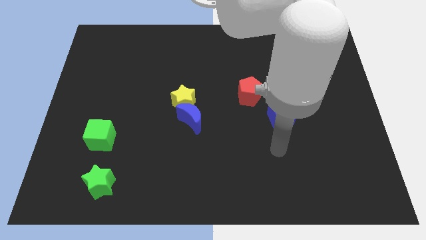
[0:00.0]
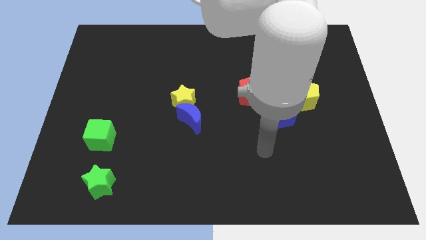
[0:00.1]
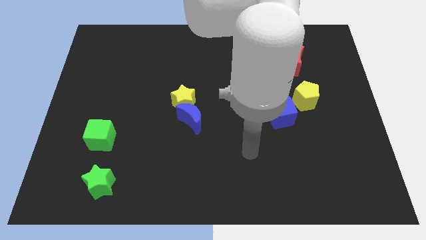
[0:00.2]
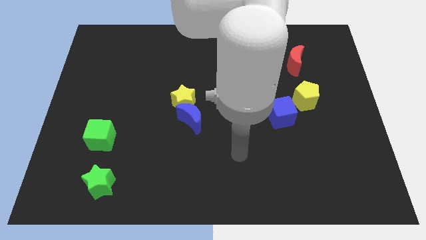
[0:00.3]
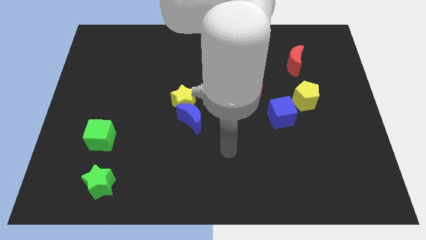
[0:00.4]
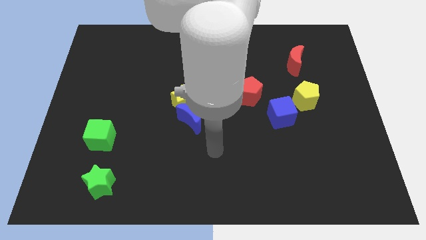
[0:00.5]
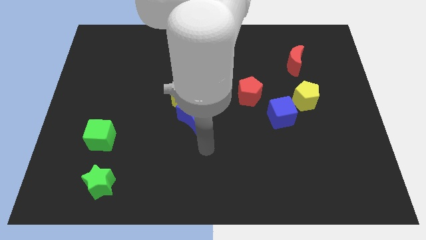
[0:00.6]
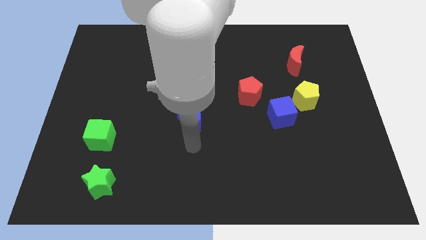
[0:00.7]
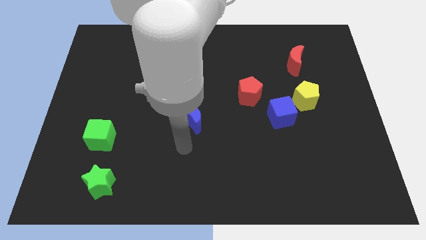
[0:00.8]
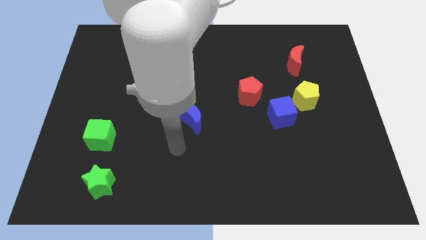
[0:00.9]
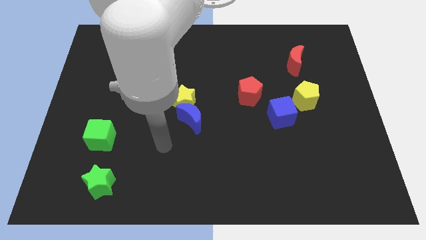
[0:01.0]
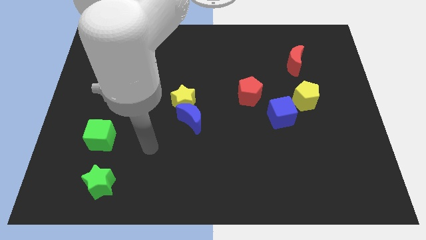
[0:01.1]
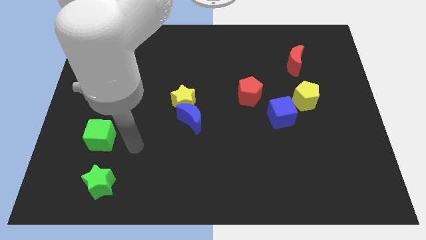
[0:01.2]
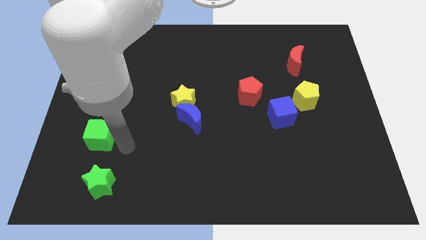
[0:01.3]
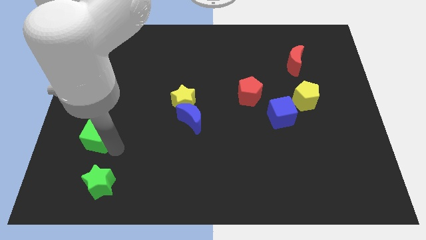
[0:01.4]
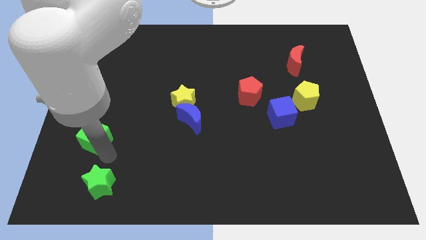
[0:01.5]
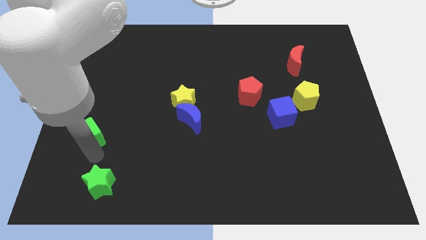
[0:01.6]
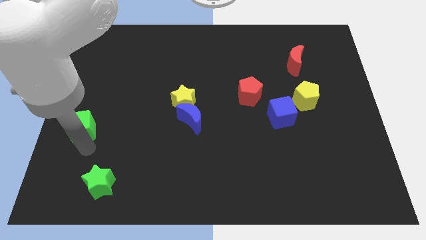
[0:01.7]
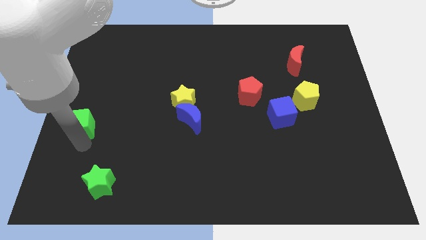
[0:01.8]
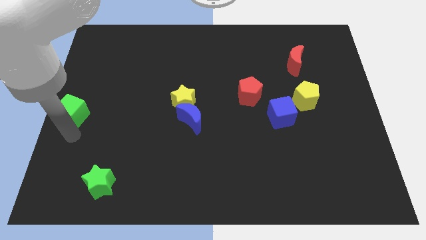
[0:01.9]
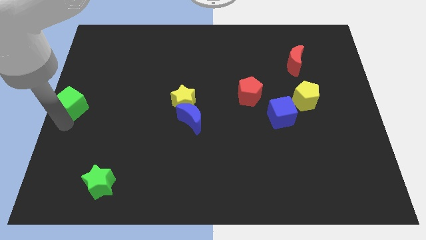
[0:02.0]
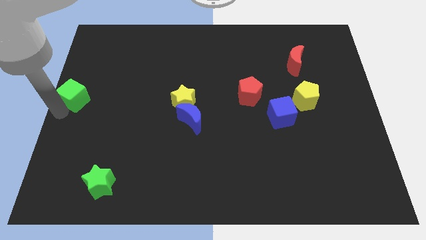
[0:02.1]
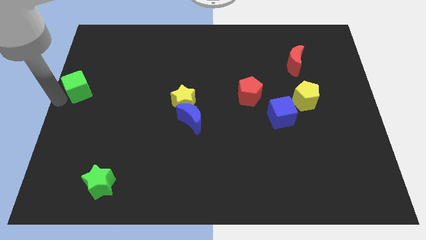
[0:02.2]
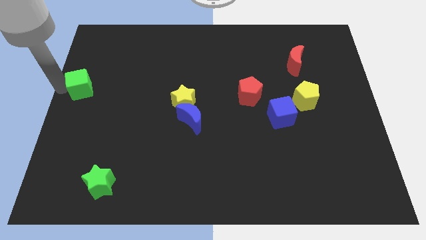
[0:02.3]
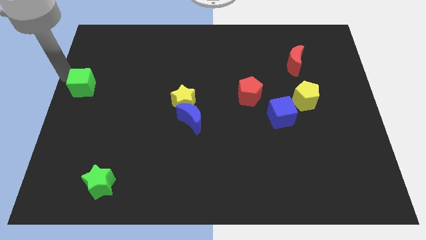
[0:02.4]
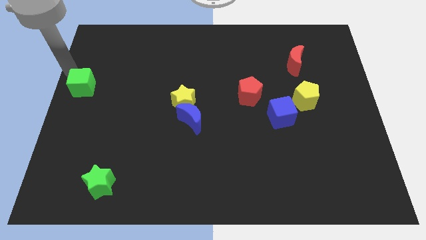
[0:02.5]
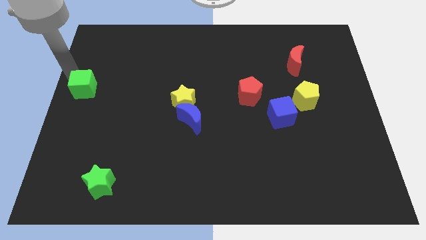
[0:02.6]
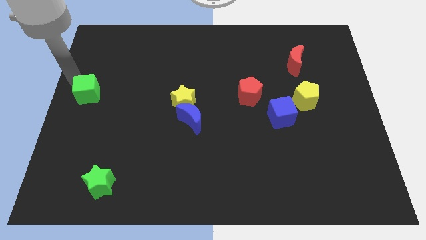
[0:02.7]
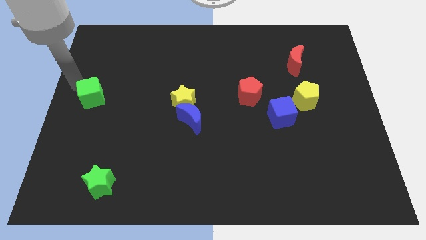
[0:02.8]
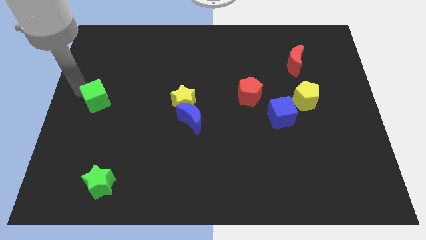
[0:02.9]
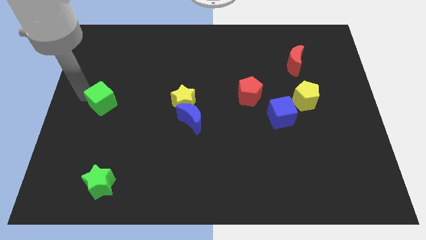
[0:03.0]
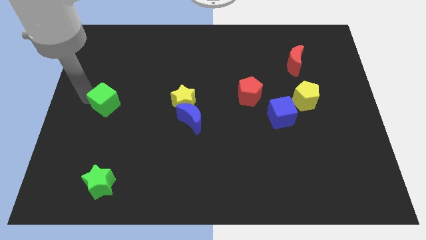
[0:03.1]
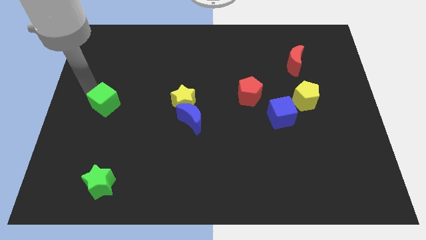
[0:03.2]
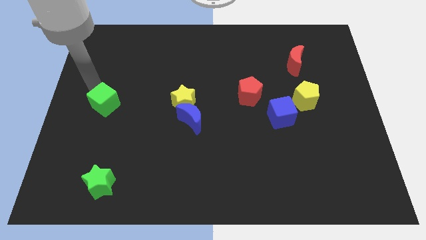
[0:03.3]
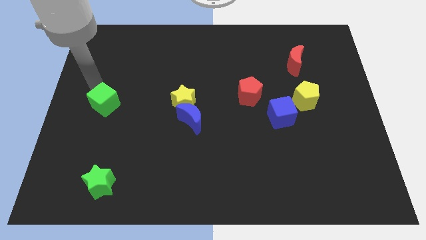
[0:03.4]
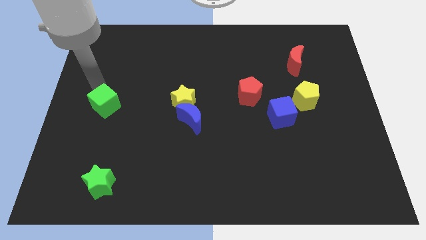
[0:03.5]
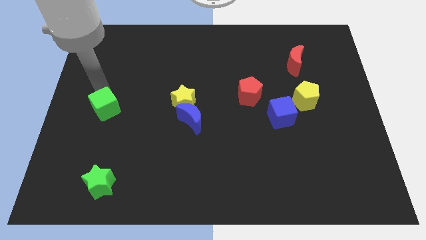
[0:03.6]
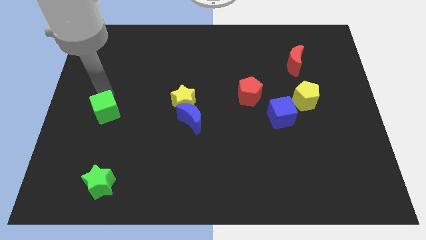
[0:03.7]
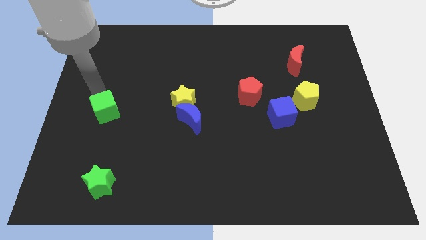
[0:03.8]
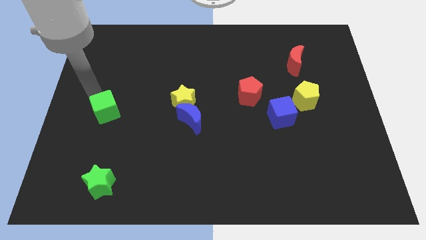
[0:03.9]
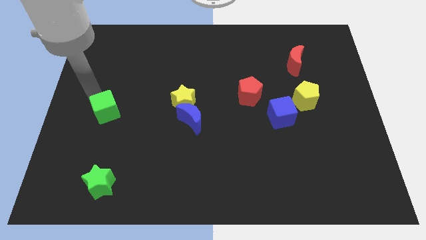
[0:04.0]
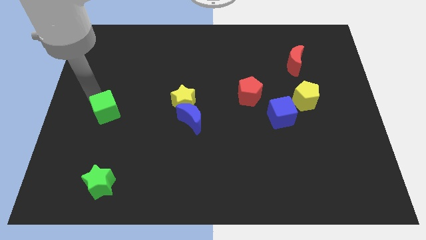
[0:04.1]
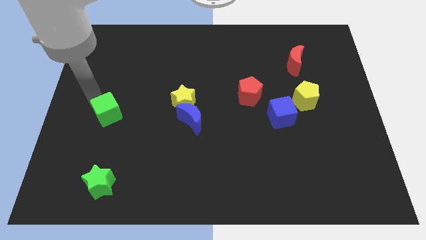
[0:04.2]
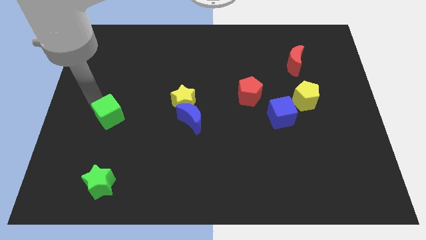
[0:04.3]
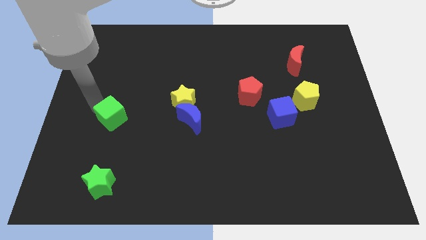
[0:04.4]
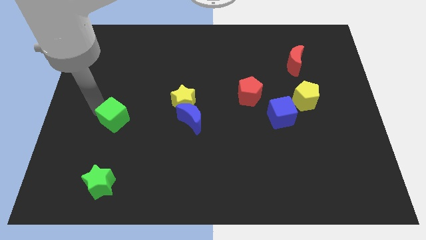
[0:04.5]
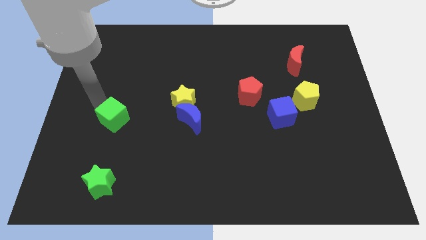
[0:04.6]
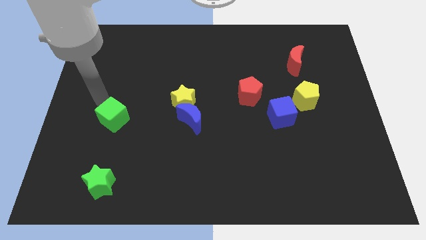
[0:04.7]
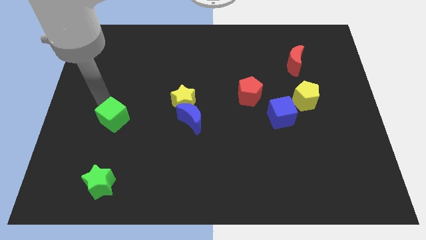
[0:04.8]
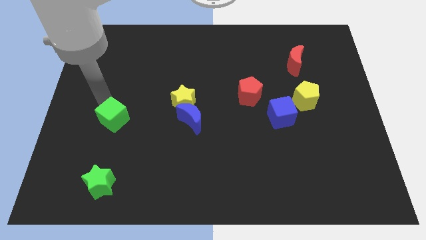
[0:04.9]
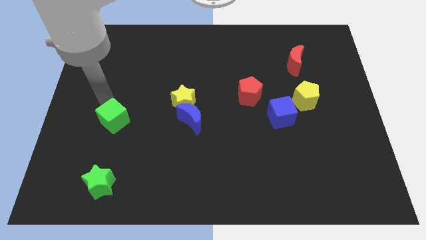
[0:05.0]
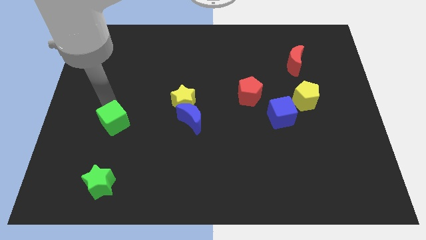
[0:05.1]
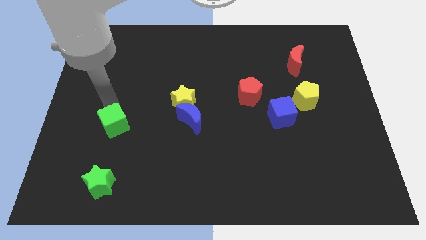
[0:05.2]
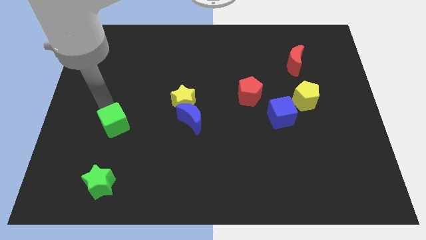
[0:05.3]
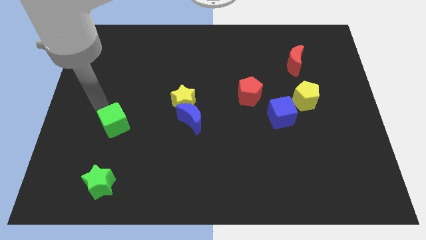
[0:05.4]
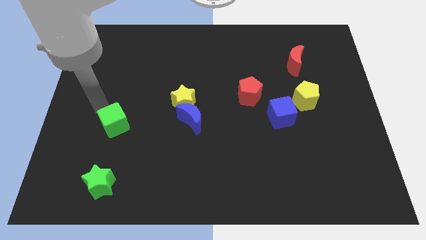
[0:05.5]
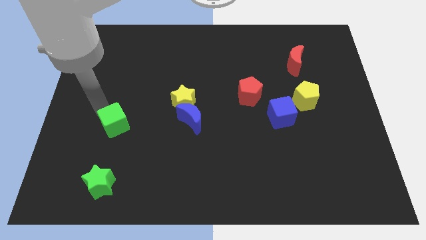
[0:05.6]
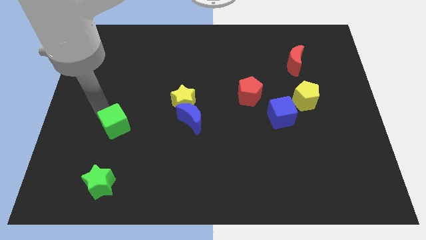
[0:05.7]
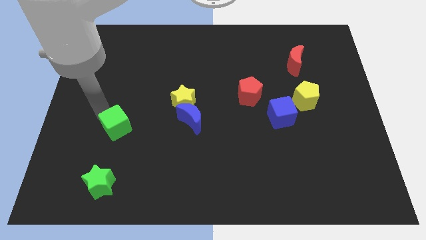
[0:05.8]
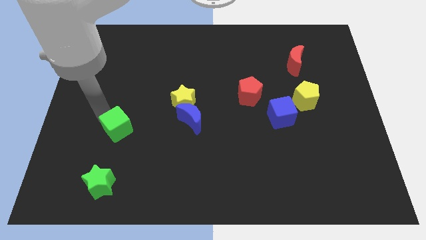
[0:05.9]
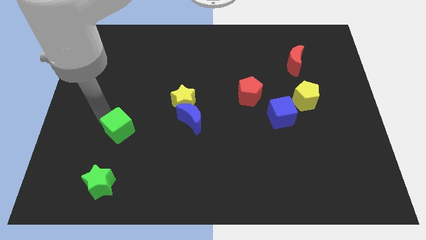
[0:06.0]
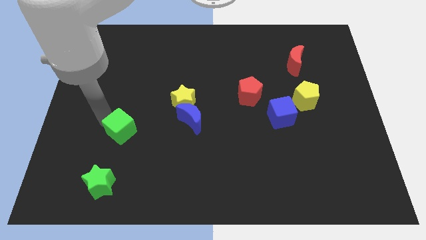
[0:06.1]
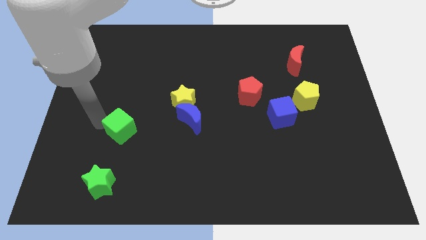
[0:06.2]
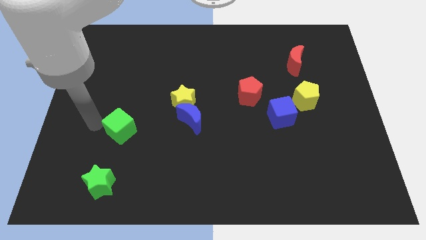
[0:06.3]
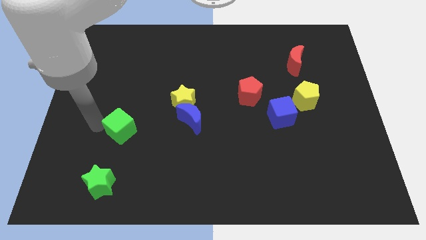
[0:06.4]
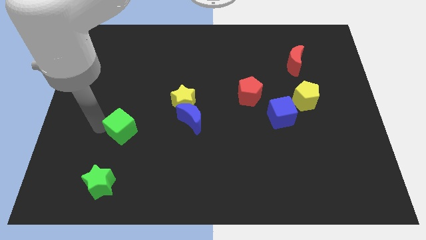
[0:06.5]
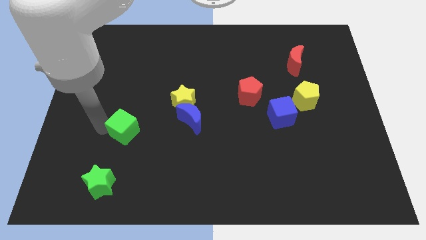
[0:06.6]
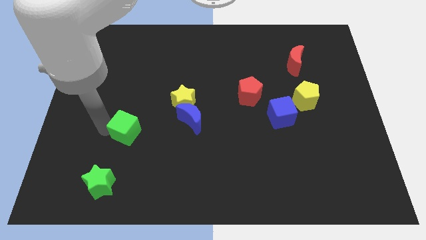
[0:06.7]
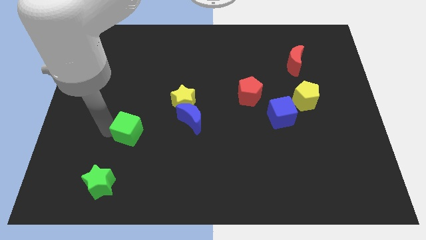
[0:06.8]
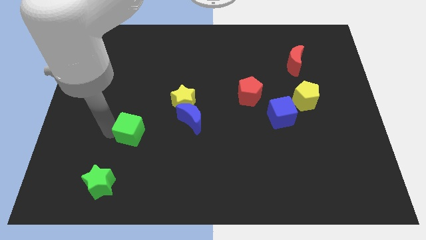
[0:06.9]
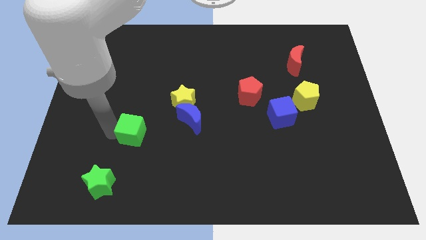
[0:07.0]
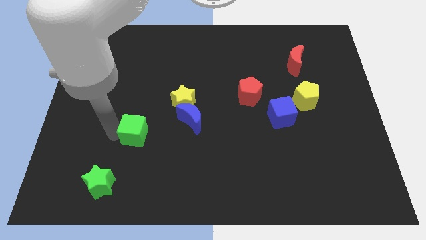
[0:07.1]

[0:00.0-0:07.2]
slide the green cube a little bit to the right

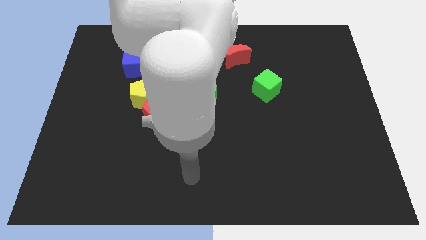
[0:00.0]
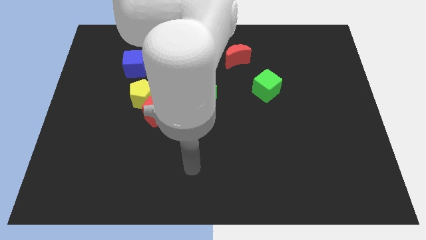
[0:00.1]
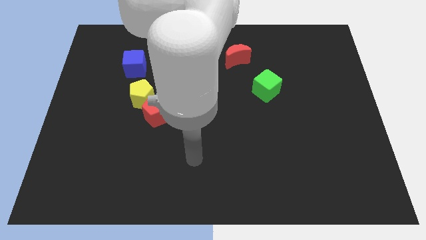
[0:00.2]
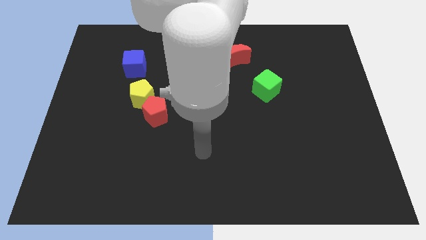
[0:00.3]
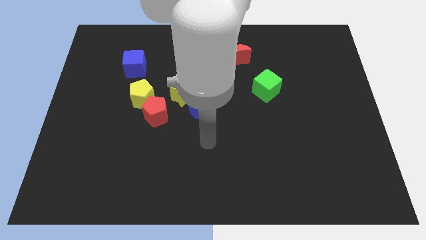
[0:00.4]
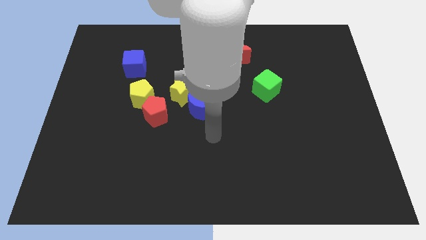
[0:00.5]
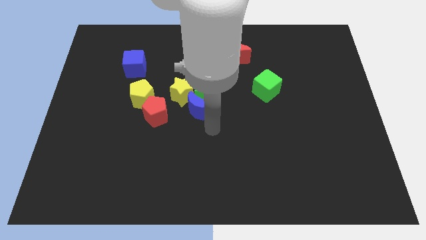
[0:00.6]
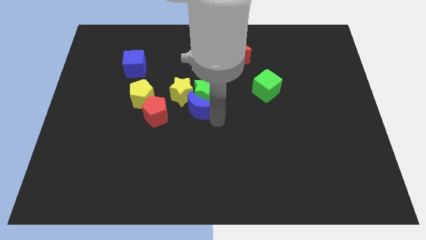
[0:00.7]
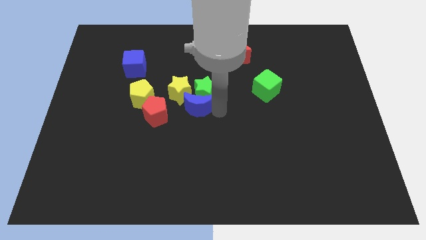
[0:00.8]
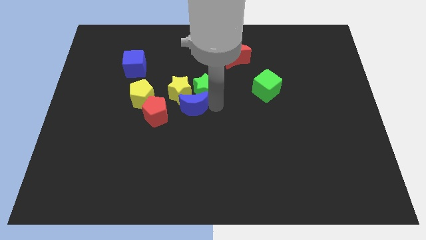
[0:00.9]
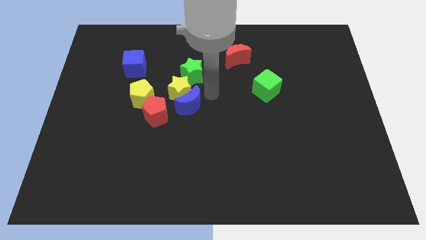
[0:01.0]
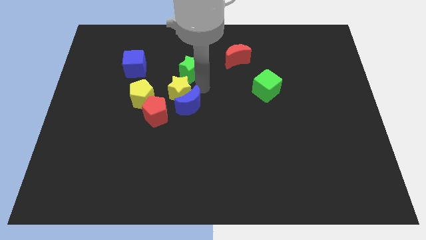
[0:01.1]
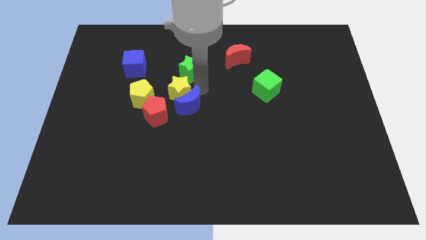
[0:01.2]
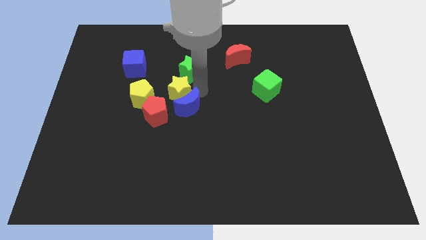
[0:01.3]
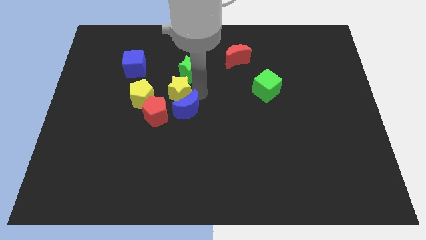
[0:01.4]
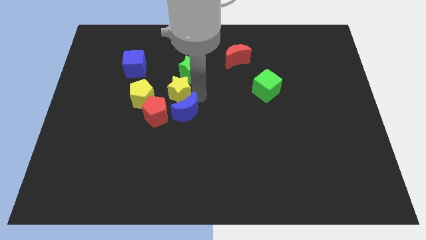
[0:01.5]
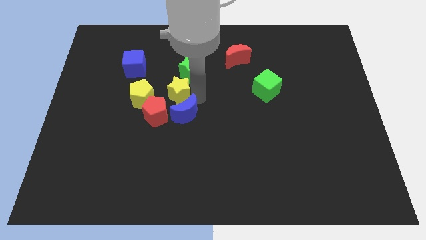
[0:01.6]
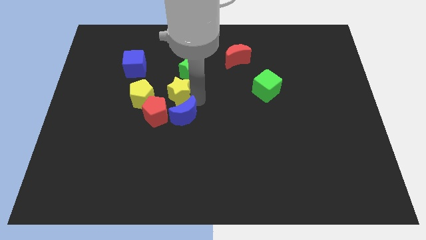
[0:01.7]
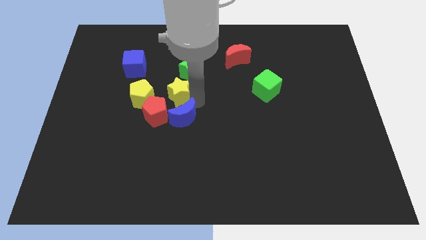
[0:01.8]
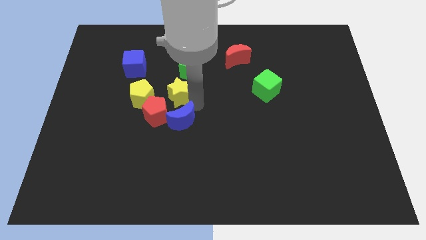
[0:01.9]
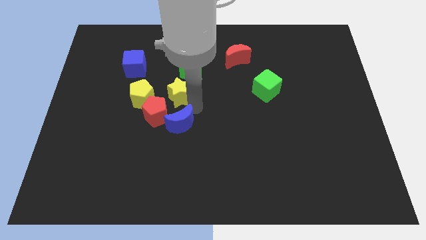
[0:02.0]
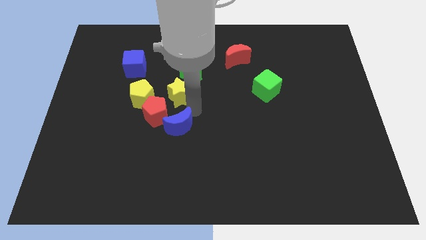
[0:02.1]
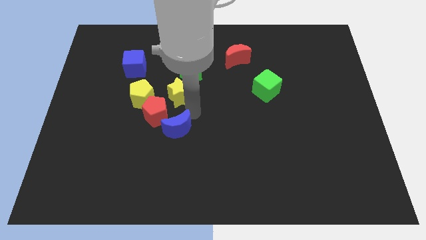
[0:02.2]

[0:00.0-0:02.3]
slide the blue moon a little bit downwards and left
